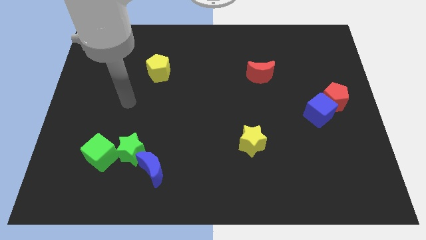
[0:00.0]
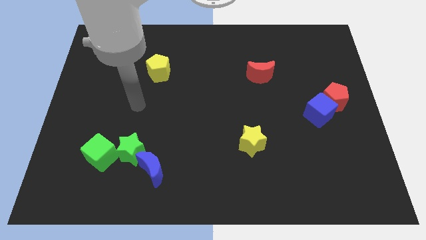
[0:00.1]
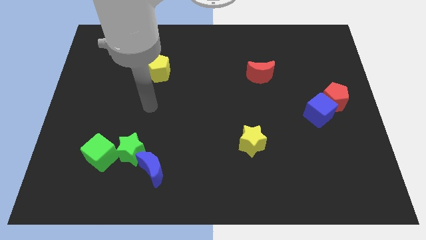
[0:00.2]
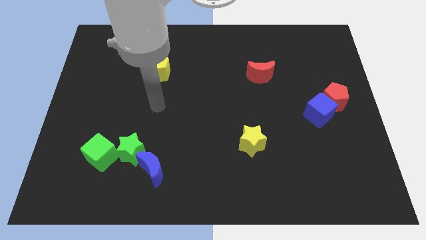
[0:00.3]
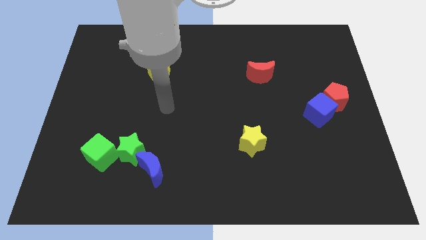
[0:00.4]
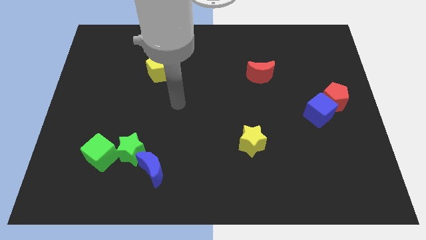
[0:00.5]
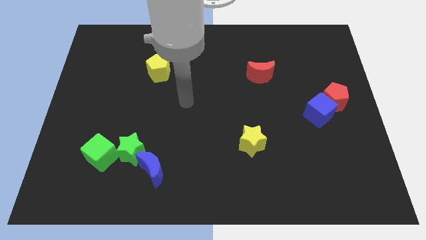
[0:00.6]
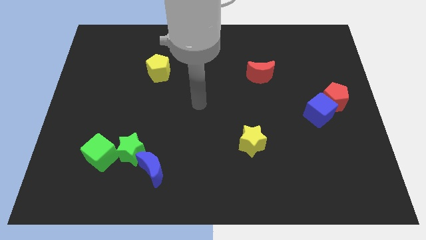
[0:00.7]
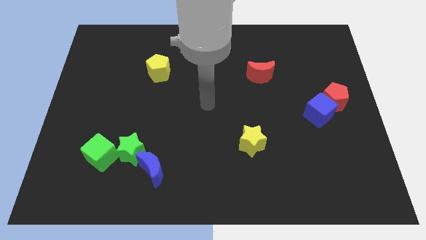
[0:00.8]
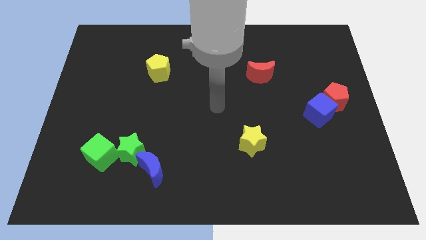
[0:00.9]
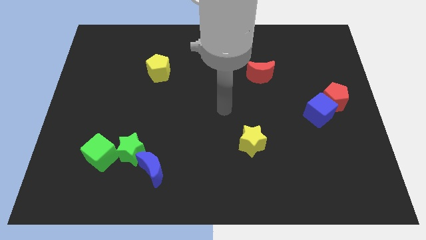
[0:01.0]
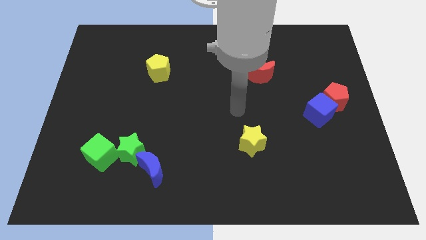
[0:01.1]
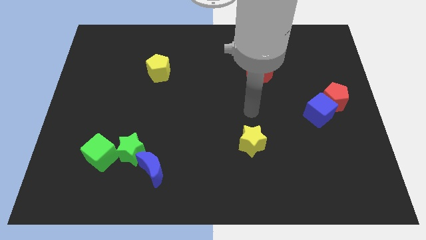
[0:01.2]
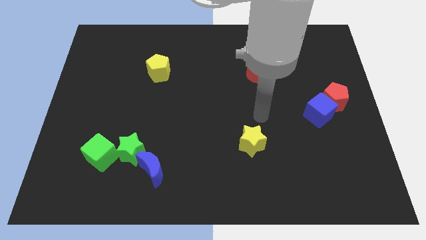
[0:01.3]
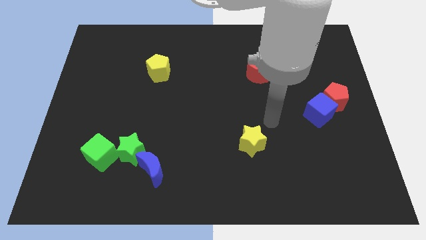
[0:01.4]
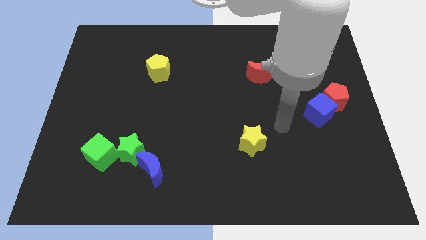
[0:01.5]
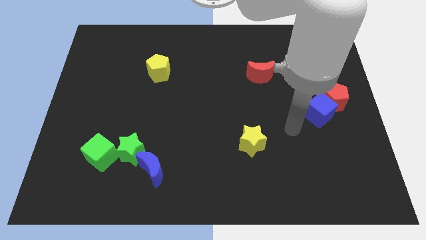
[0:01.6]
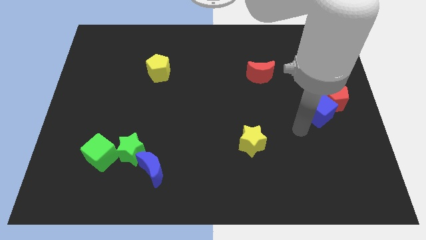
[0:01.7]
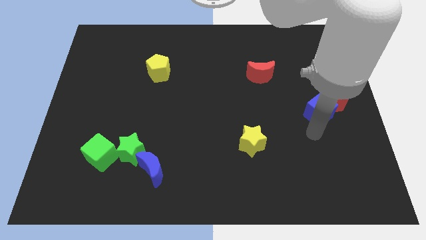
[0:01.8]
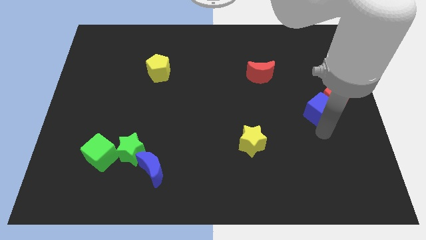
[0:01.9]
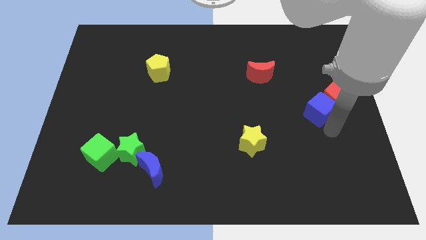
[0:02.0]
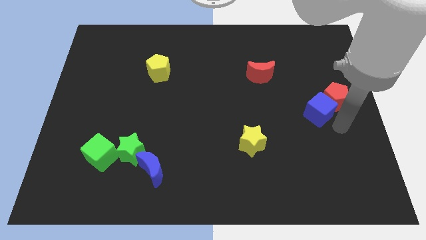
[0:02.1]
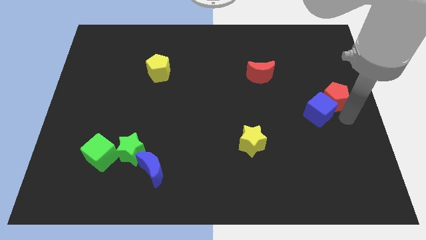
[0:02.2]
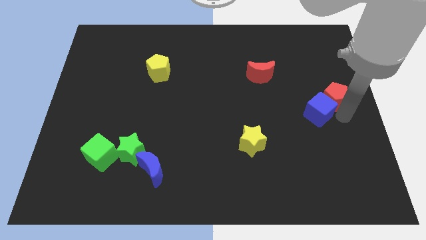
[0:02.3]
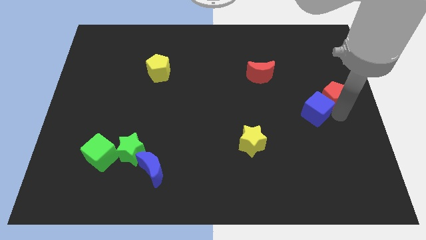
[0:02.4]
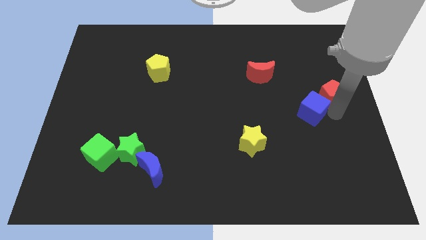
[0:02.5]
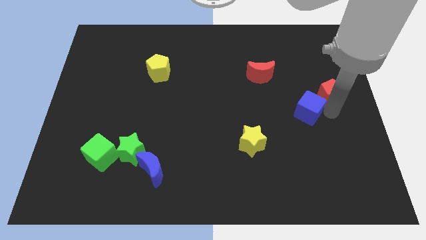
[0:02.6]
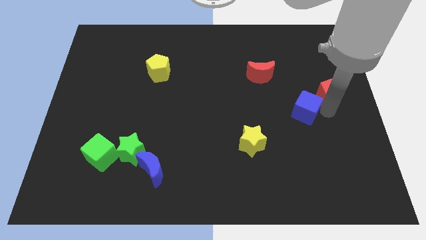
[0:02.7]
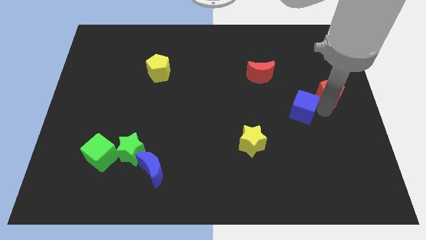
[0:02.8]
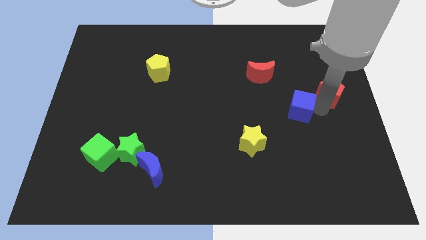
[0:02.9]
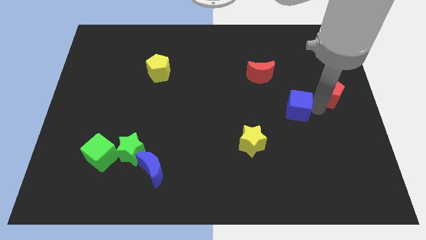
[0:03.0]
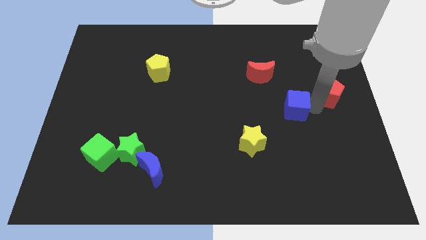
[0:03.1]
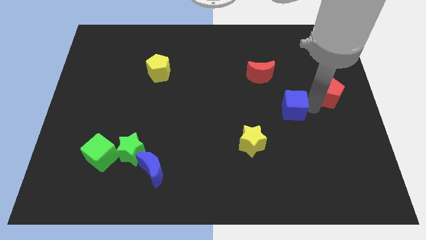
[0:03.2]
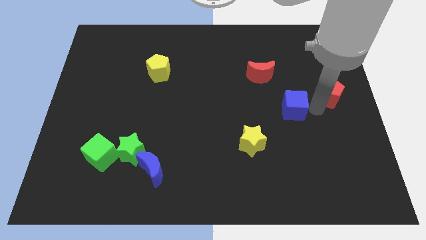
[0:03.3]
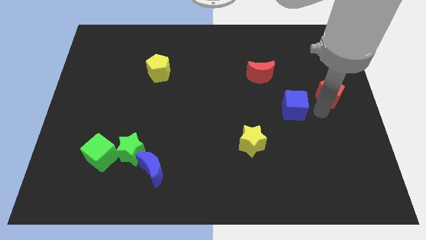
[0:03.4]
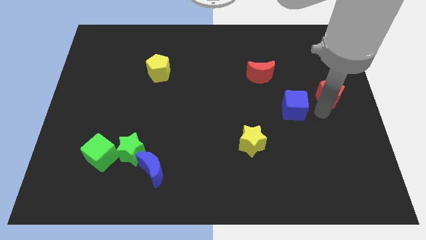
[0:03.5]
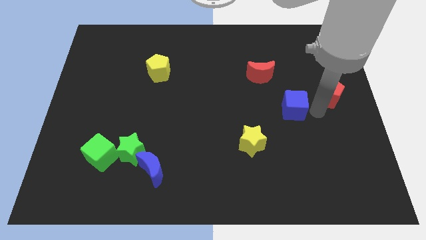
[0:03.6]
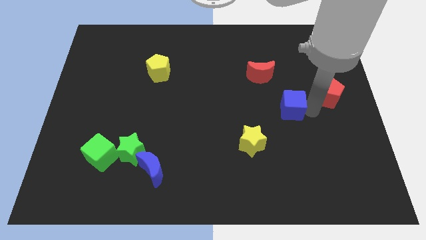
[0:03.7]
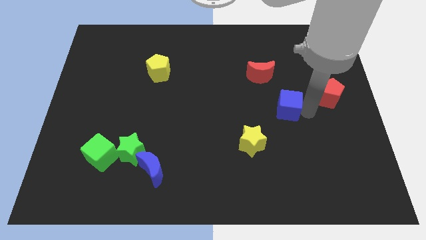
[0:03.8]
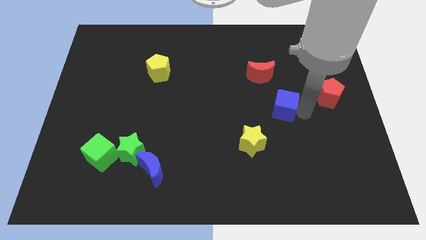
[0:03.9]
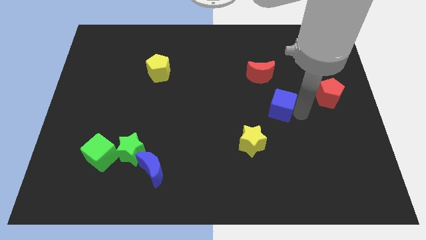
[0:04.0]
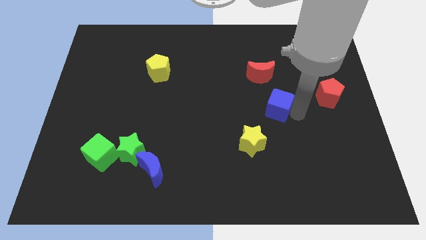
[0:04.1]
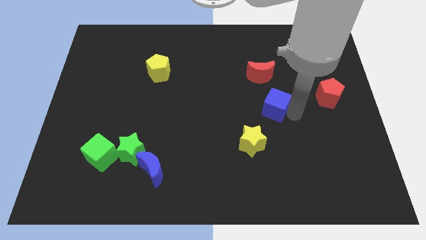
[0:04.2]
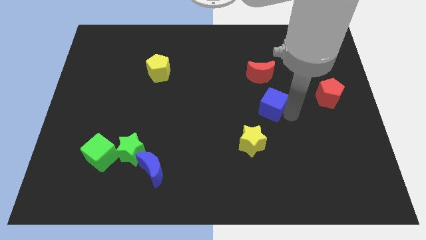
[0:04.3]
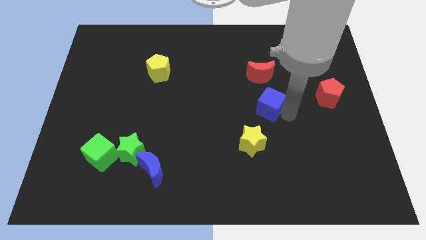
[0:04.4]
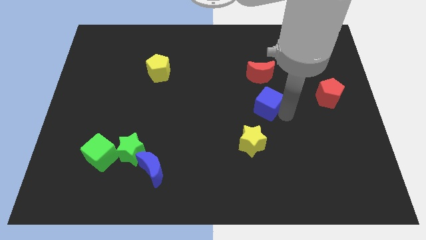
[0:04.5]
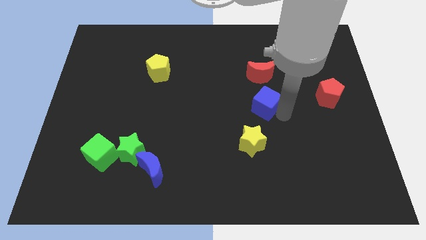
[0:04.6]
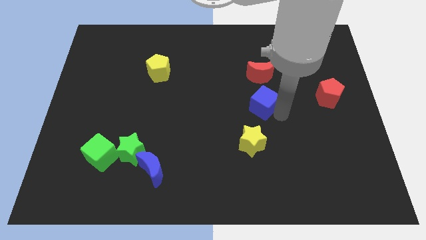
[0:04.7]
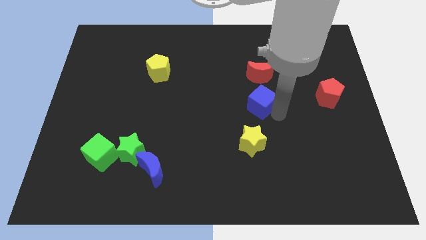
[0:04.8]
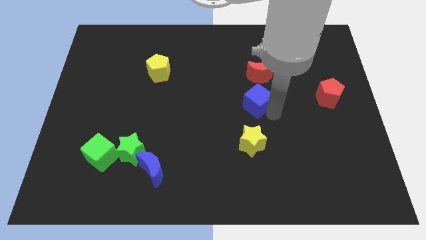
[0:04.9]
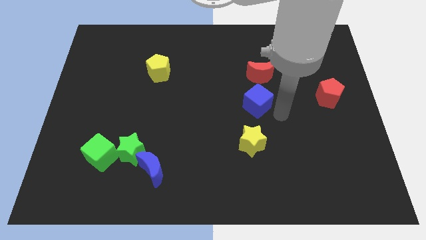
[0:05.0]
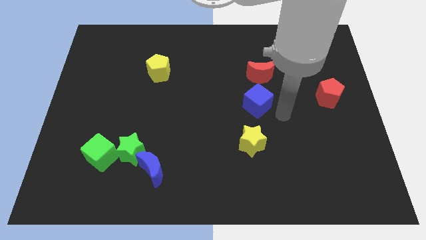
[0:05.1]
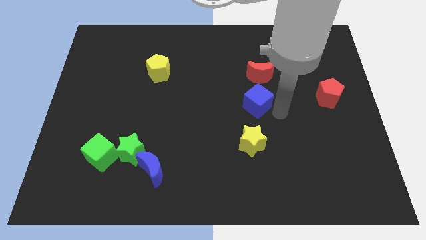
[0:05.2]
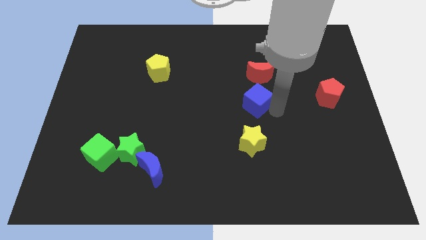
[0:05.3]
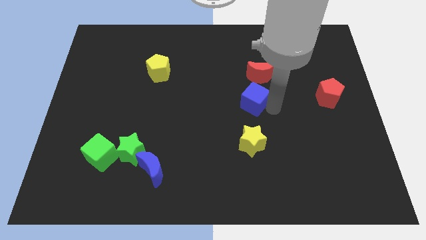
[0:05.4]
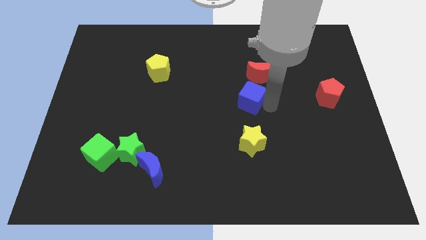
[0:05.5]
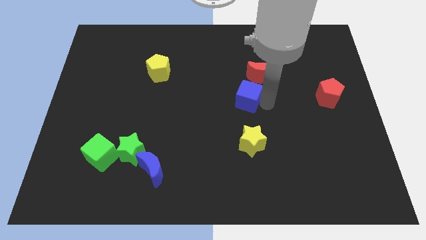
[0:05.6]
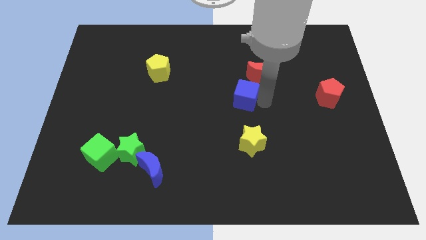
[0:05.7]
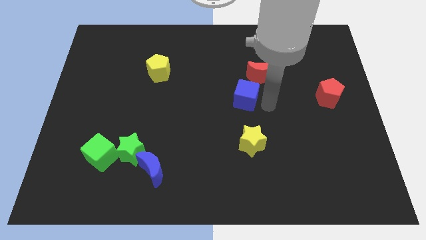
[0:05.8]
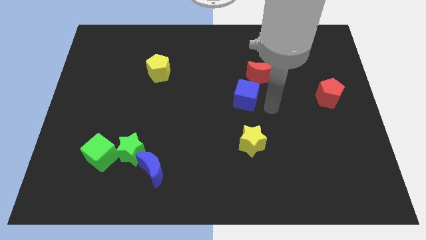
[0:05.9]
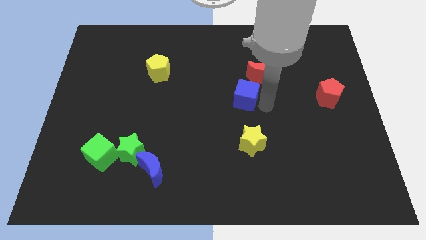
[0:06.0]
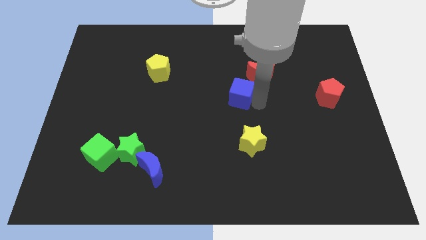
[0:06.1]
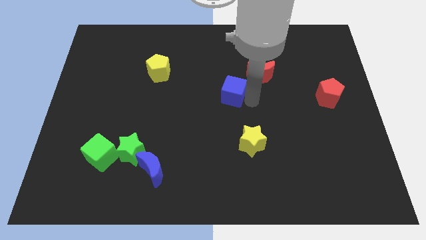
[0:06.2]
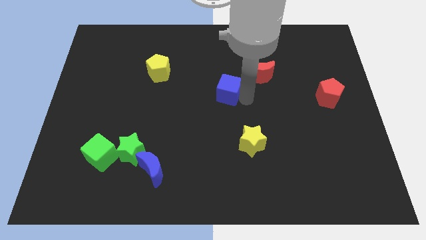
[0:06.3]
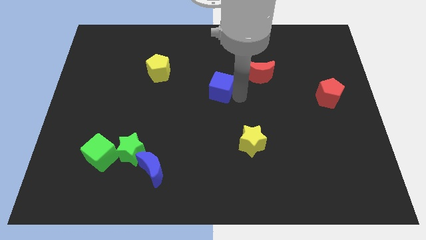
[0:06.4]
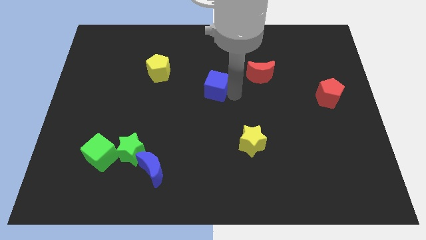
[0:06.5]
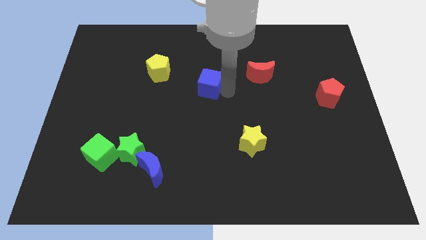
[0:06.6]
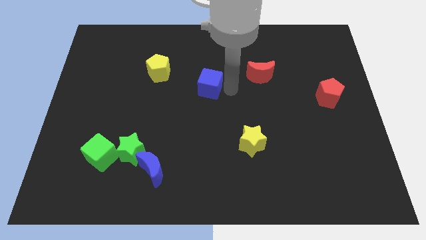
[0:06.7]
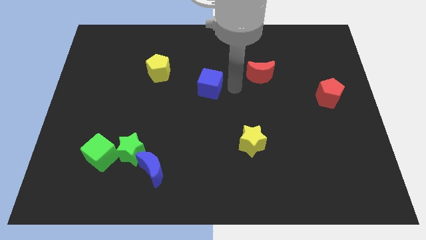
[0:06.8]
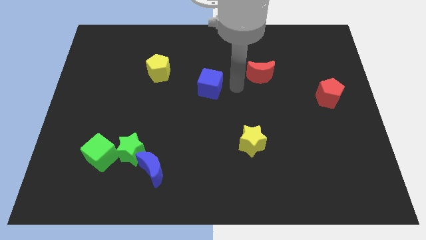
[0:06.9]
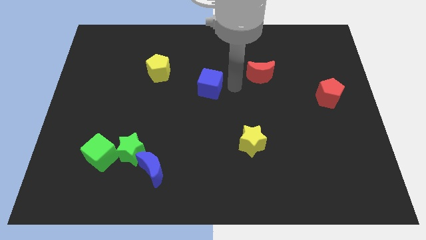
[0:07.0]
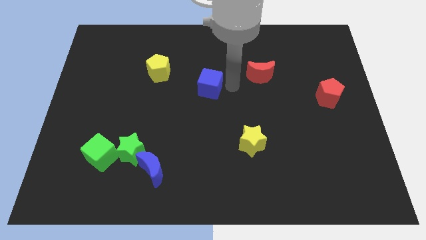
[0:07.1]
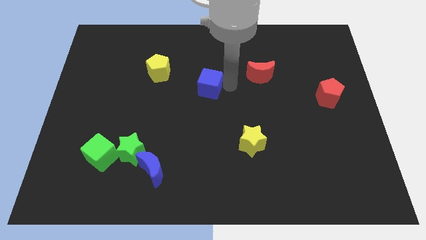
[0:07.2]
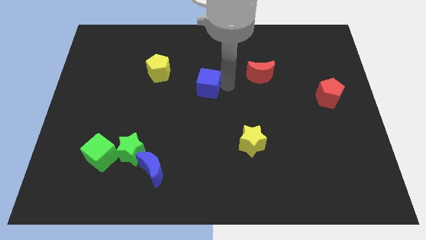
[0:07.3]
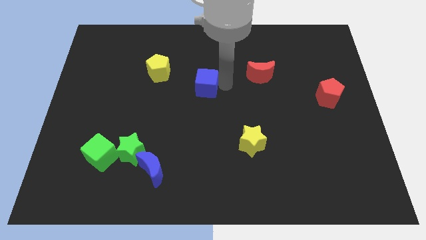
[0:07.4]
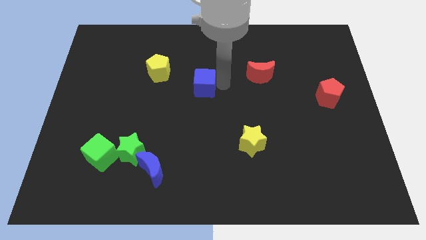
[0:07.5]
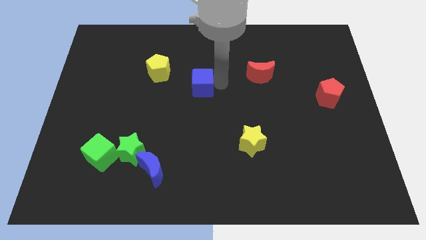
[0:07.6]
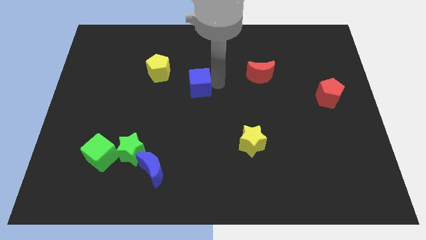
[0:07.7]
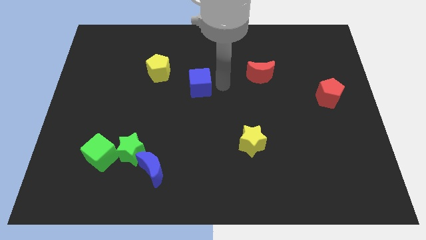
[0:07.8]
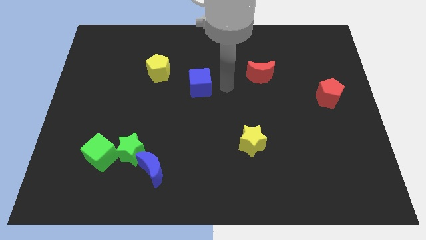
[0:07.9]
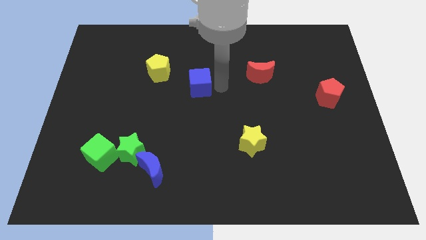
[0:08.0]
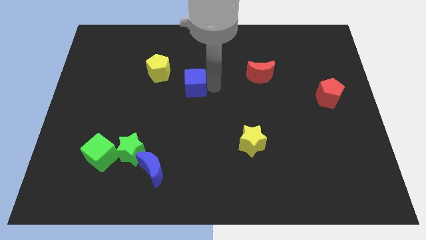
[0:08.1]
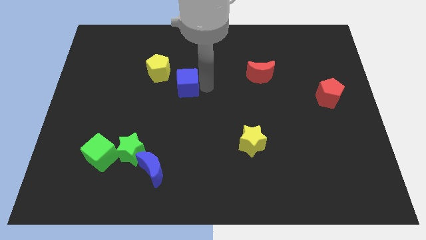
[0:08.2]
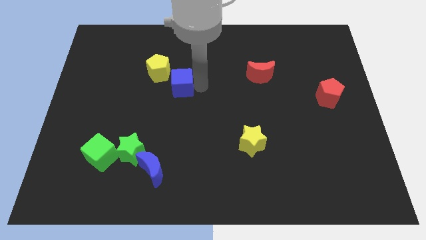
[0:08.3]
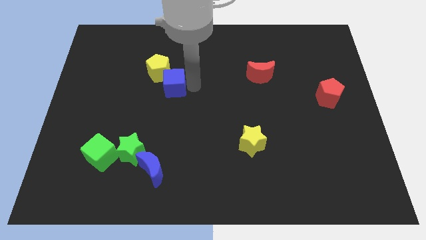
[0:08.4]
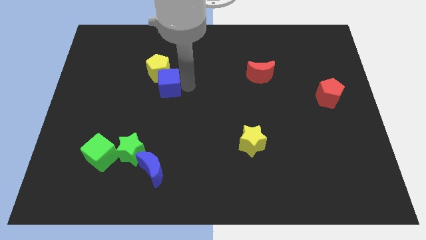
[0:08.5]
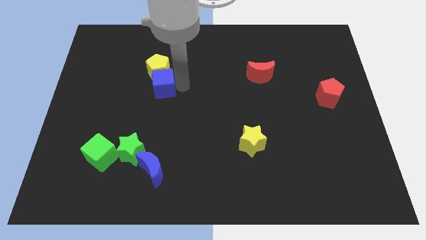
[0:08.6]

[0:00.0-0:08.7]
put the blue cube diagonally down and to the left of the yellow pentagon
